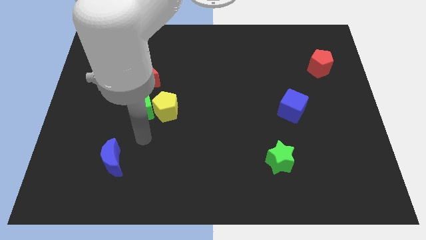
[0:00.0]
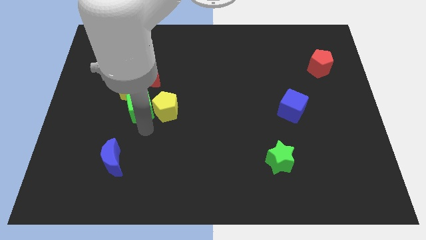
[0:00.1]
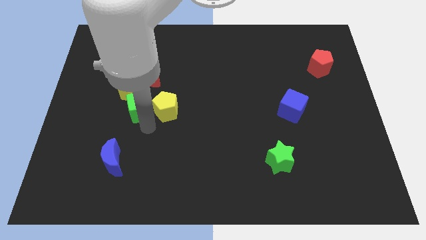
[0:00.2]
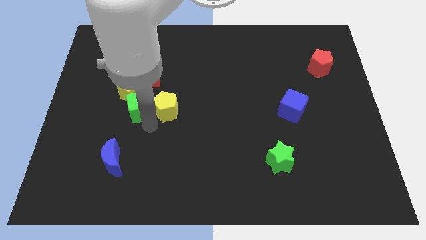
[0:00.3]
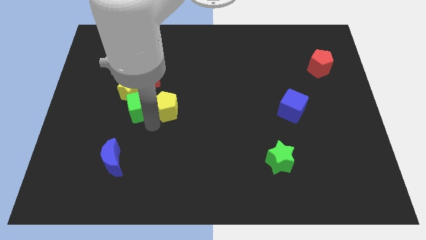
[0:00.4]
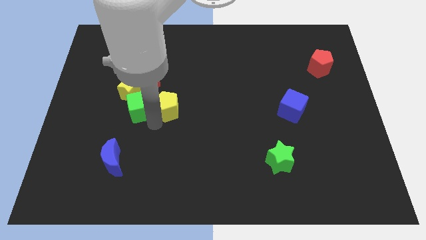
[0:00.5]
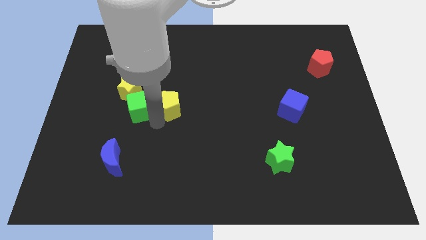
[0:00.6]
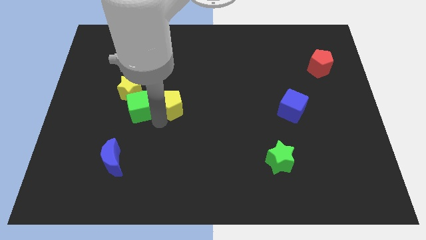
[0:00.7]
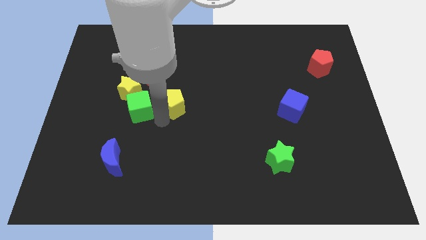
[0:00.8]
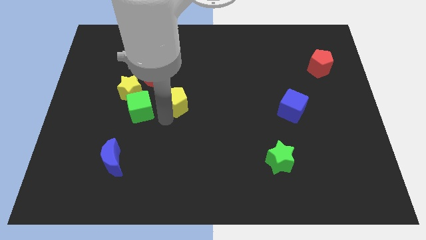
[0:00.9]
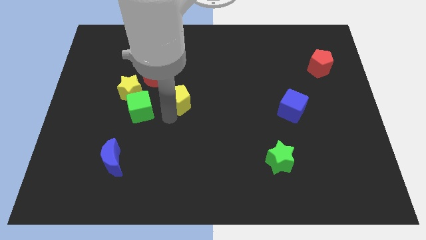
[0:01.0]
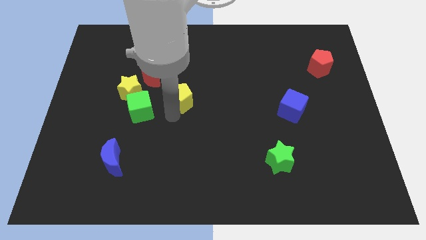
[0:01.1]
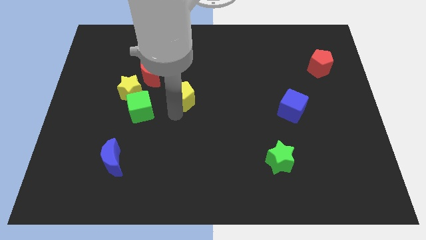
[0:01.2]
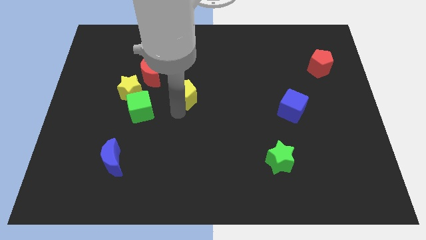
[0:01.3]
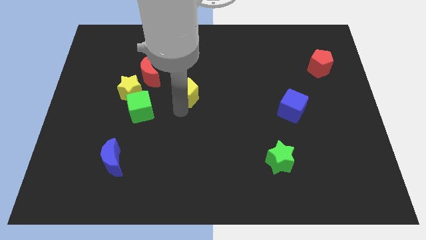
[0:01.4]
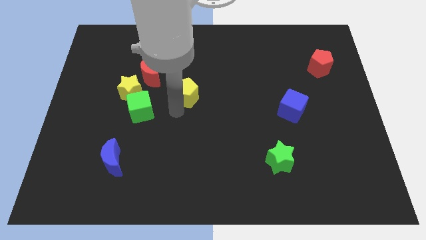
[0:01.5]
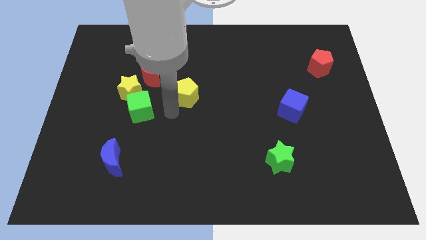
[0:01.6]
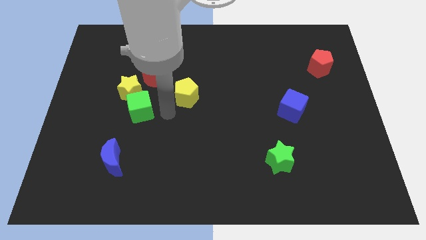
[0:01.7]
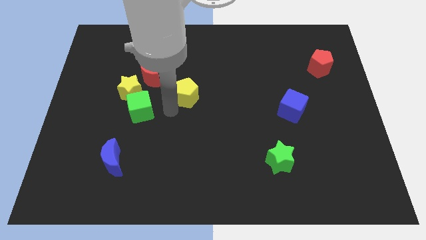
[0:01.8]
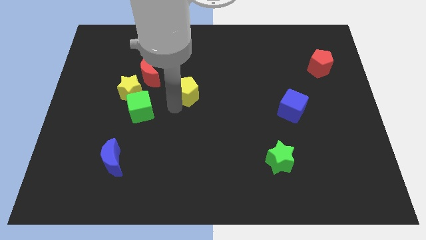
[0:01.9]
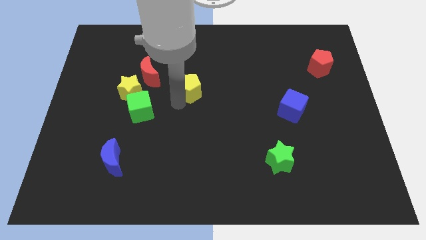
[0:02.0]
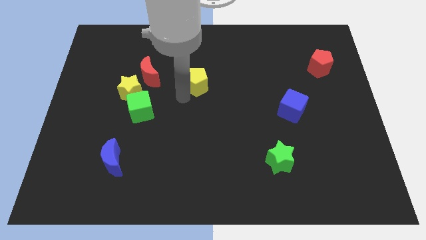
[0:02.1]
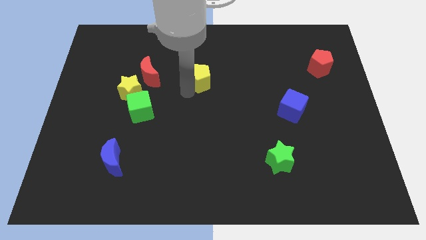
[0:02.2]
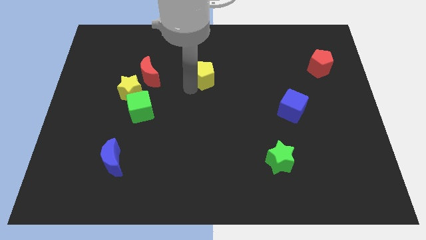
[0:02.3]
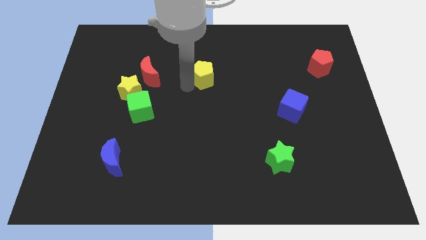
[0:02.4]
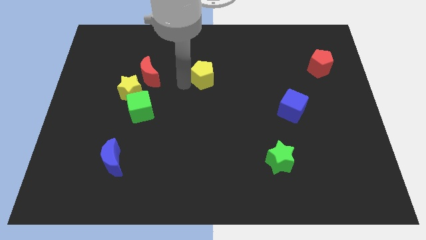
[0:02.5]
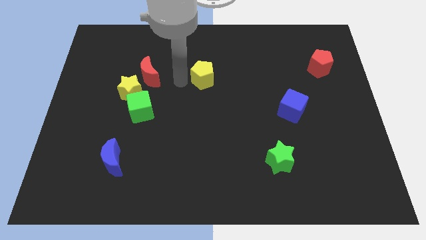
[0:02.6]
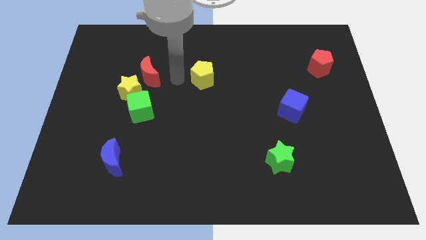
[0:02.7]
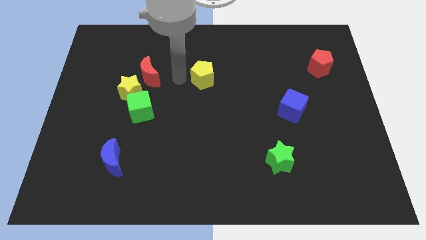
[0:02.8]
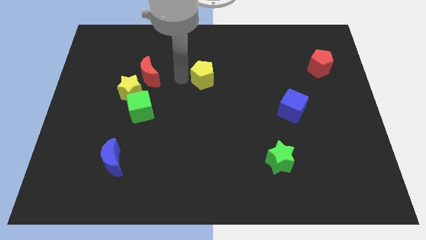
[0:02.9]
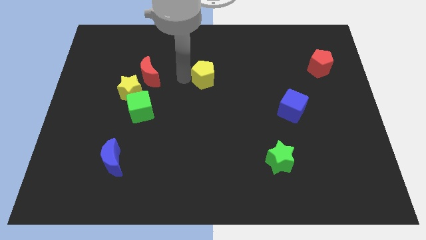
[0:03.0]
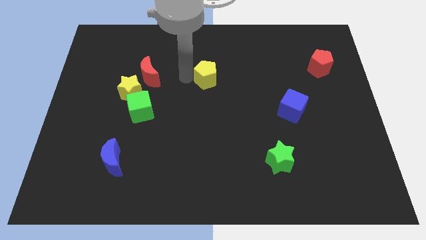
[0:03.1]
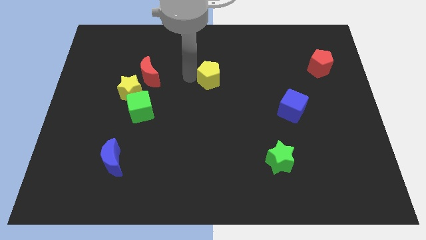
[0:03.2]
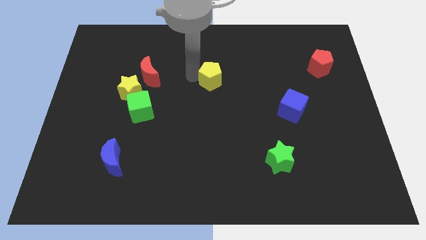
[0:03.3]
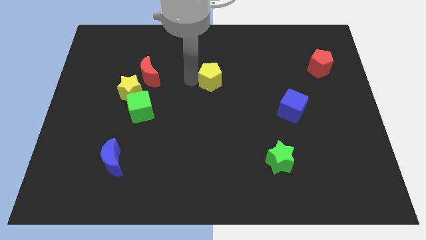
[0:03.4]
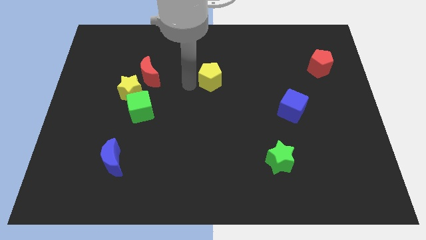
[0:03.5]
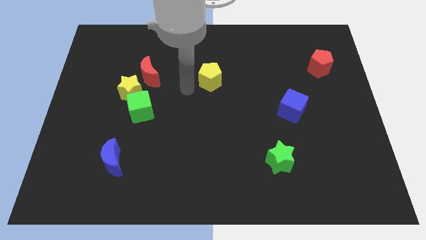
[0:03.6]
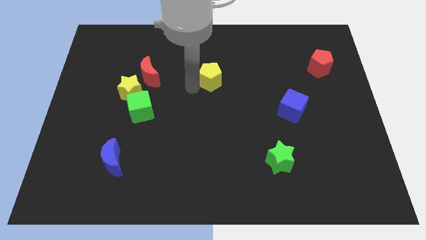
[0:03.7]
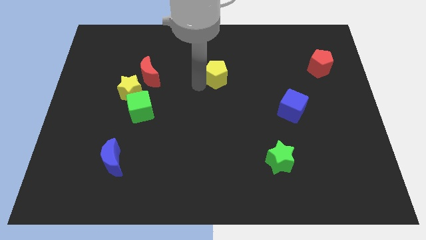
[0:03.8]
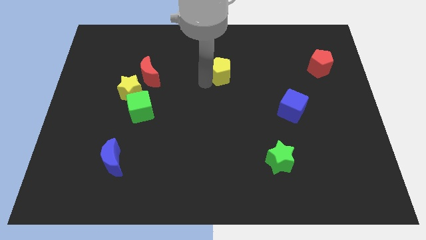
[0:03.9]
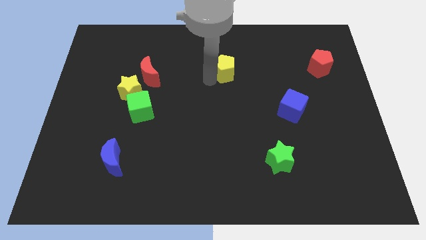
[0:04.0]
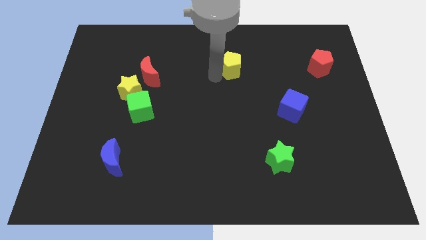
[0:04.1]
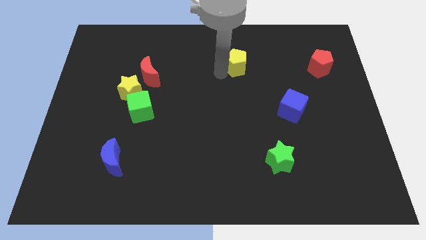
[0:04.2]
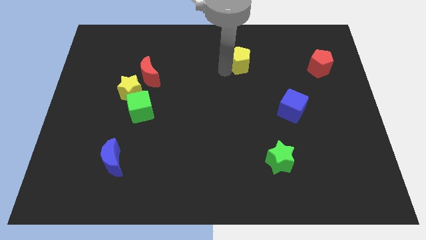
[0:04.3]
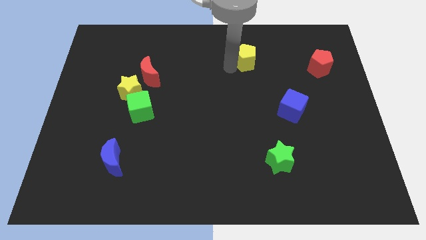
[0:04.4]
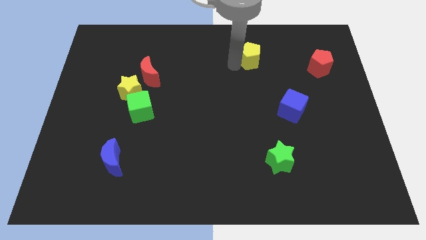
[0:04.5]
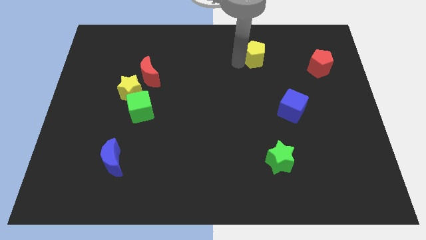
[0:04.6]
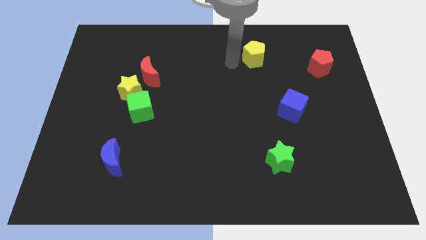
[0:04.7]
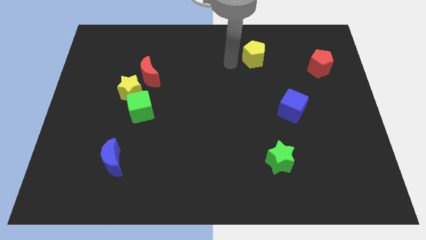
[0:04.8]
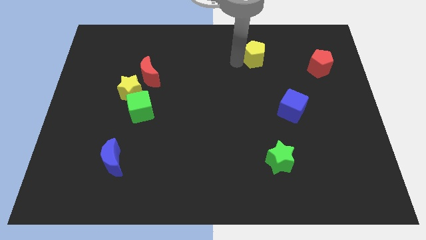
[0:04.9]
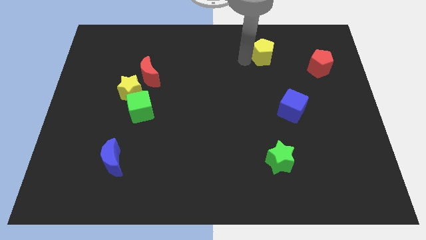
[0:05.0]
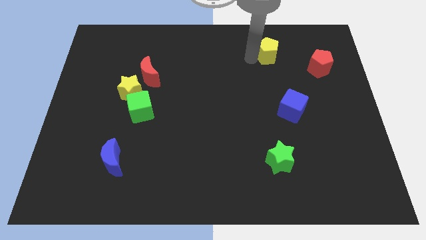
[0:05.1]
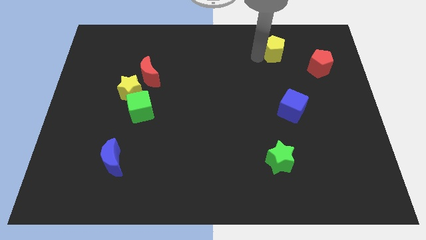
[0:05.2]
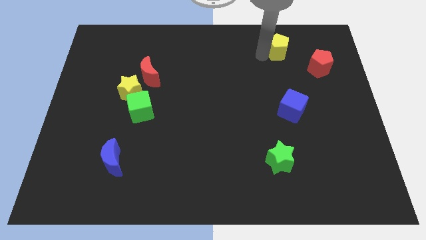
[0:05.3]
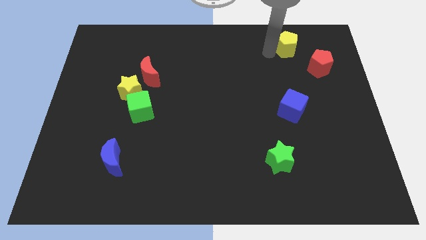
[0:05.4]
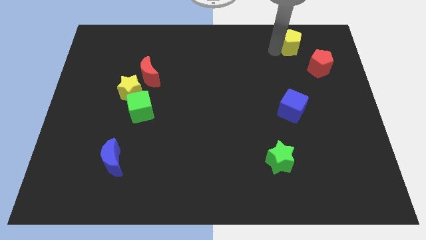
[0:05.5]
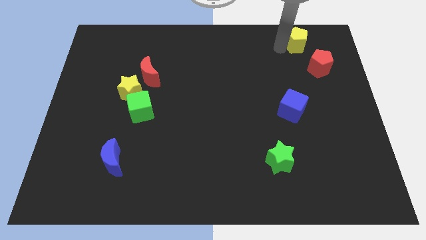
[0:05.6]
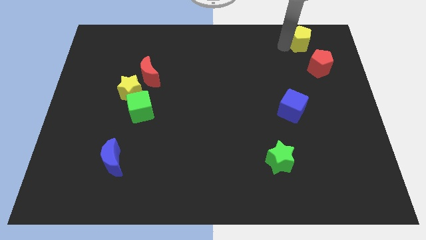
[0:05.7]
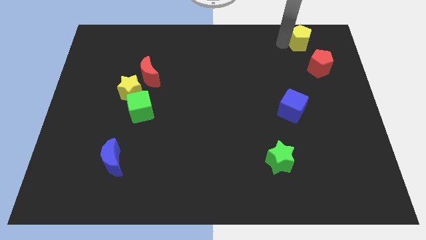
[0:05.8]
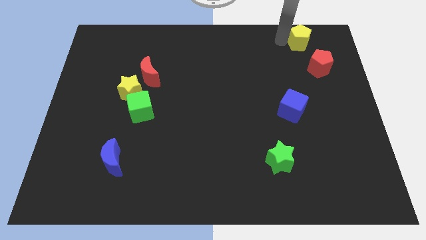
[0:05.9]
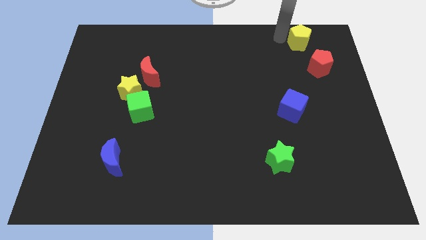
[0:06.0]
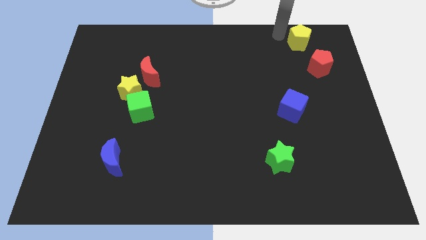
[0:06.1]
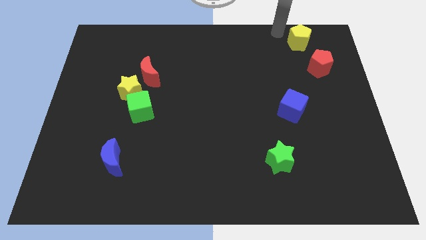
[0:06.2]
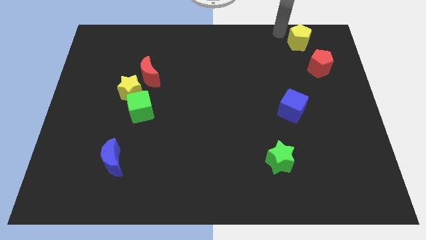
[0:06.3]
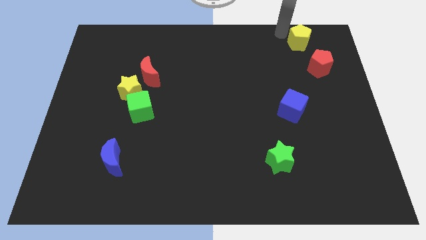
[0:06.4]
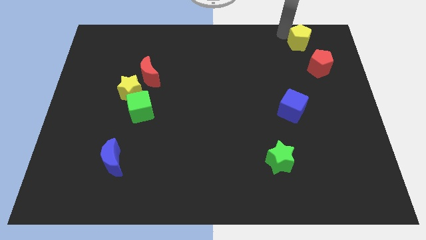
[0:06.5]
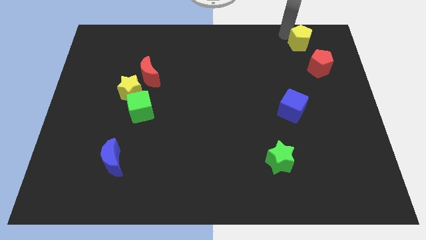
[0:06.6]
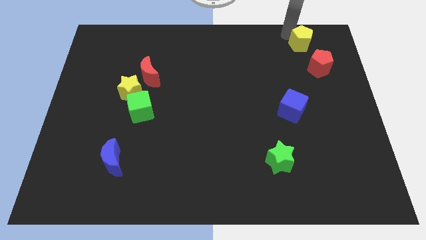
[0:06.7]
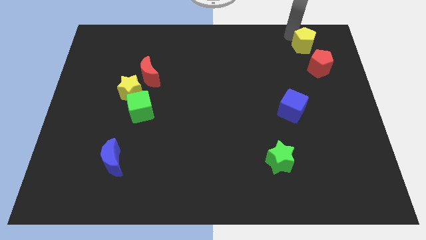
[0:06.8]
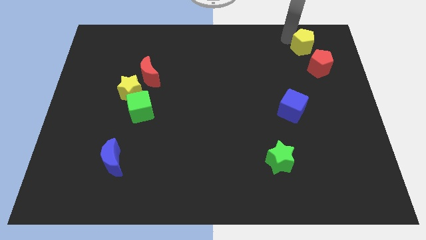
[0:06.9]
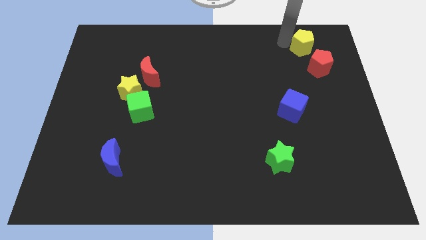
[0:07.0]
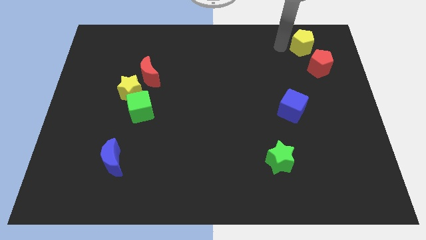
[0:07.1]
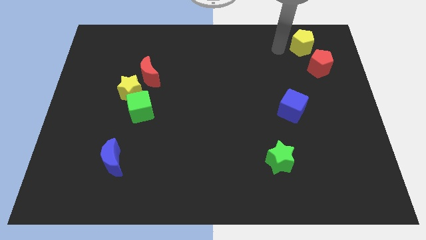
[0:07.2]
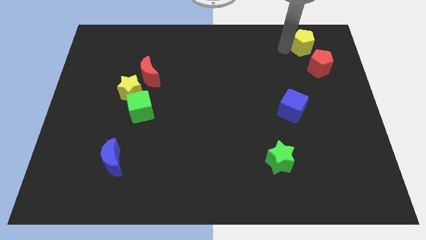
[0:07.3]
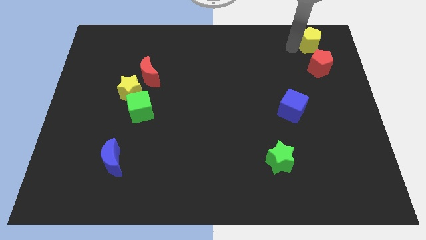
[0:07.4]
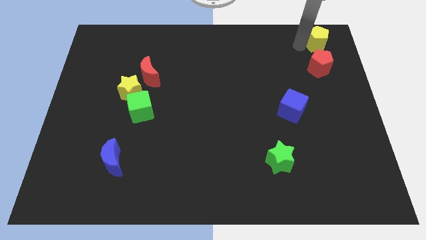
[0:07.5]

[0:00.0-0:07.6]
put the yellow pentagon to the upper right corner
